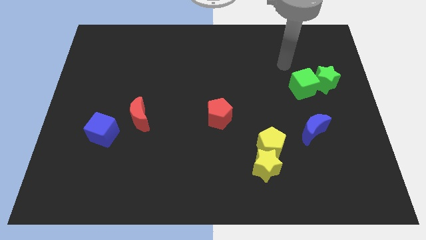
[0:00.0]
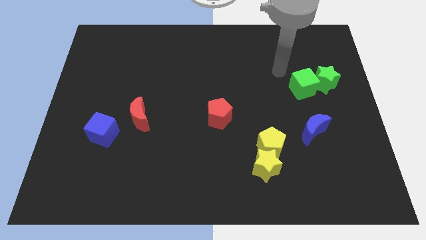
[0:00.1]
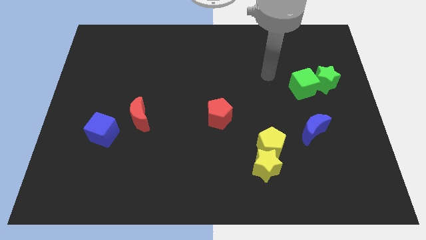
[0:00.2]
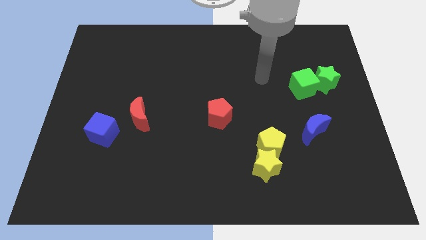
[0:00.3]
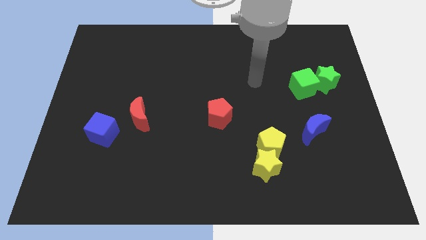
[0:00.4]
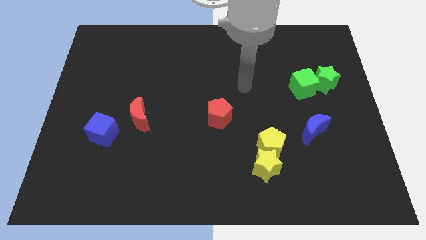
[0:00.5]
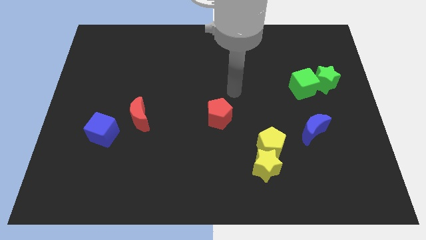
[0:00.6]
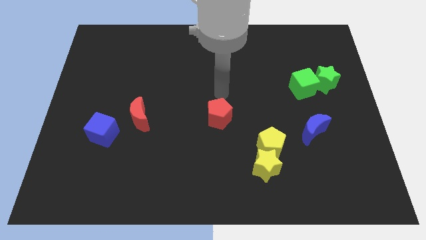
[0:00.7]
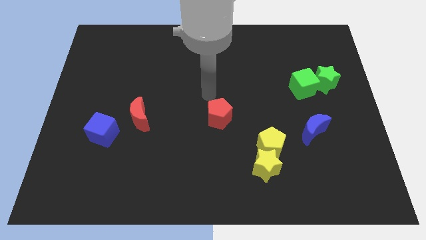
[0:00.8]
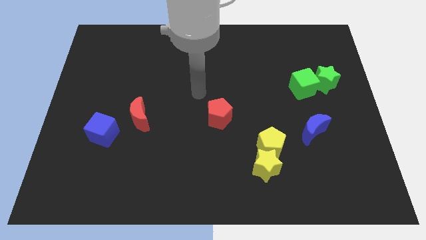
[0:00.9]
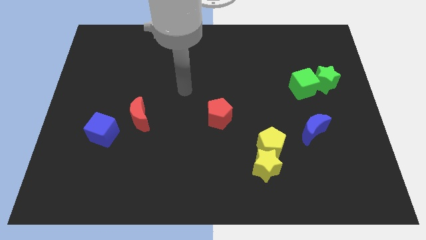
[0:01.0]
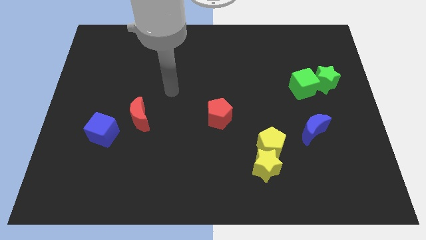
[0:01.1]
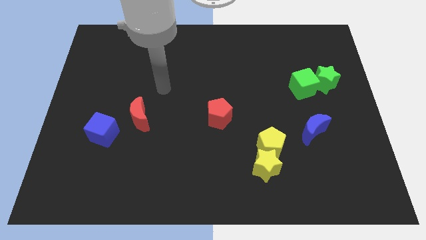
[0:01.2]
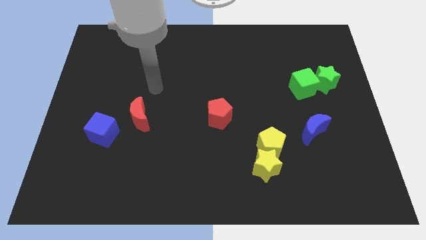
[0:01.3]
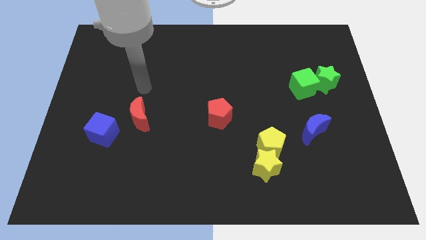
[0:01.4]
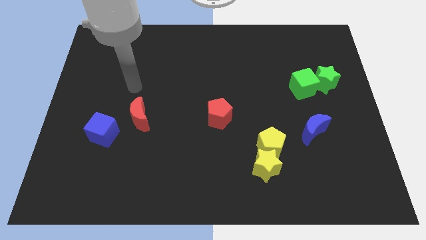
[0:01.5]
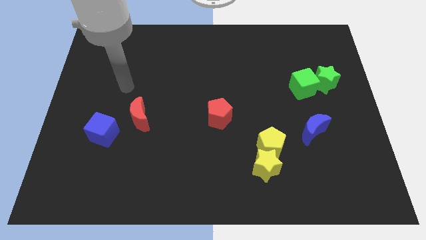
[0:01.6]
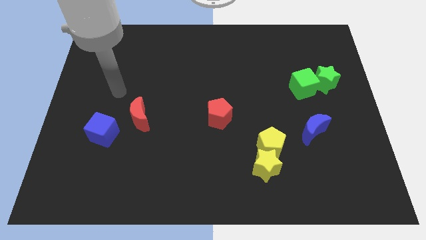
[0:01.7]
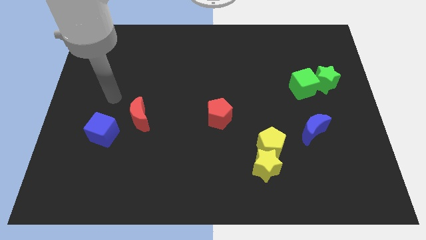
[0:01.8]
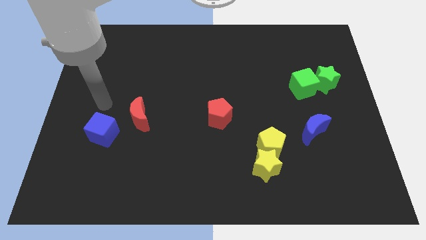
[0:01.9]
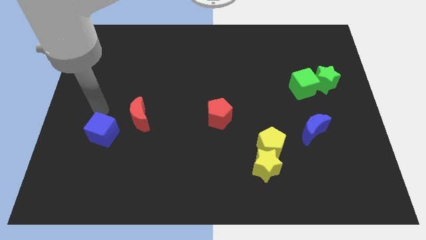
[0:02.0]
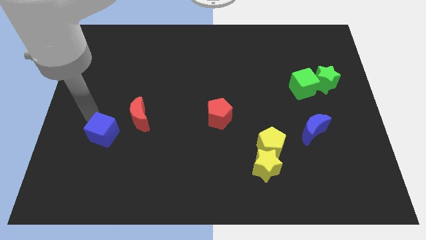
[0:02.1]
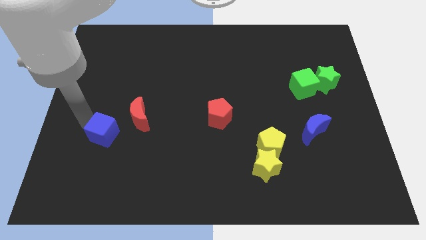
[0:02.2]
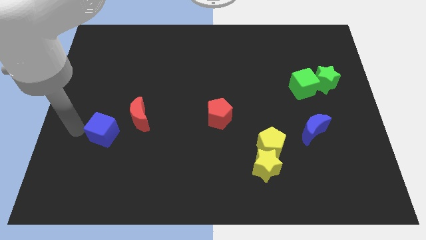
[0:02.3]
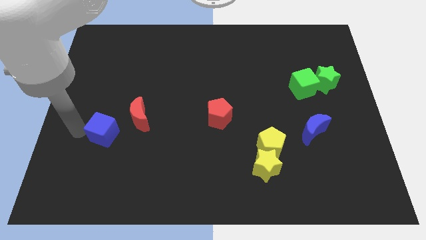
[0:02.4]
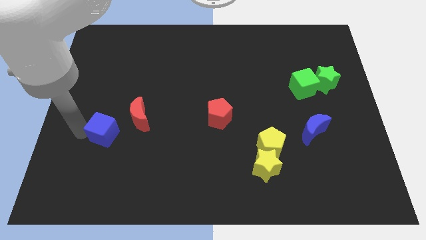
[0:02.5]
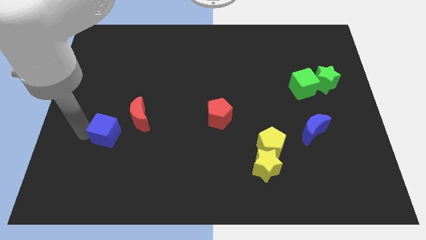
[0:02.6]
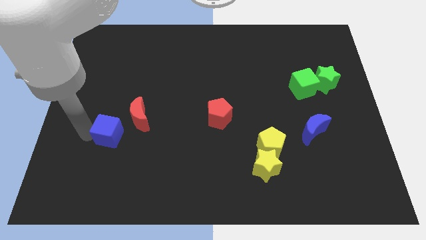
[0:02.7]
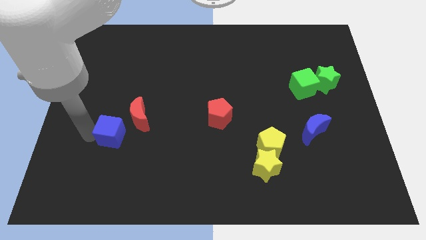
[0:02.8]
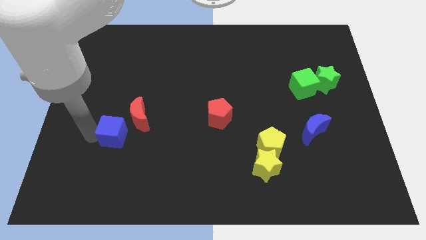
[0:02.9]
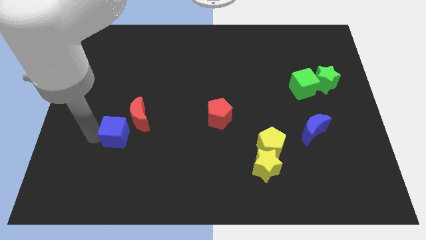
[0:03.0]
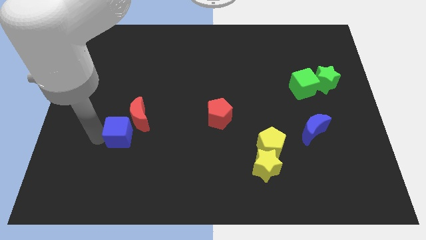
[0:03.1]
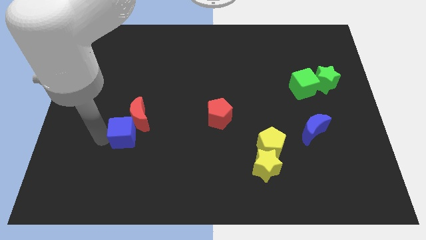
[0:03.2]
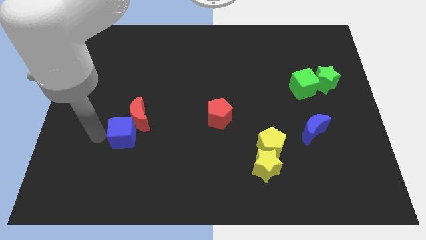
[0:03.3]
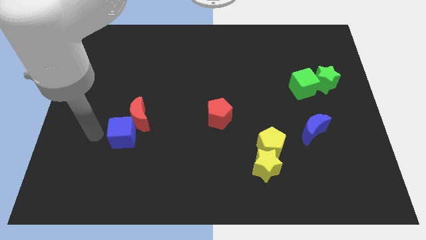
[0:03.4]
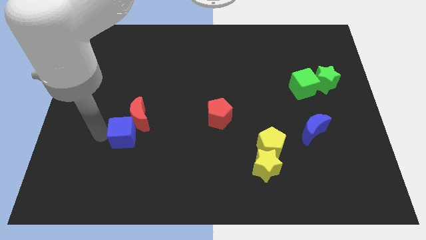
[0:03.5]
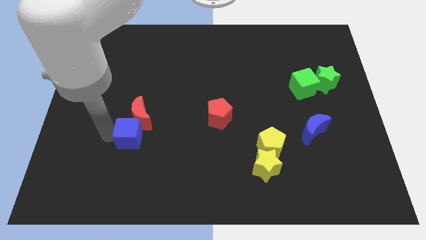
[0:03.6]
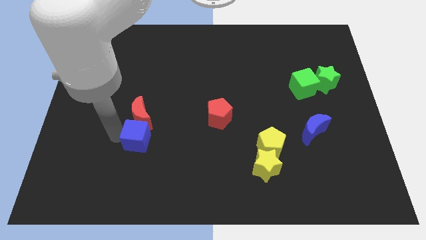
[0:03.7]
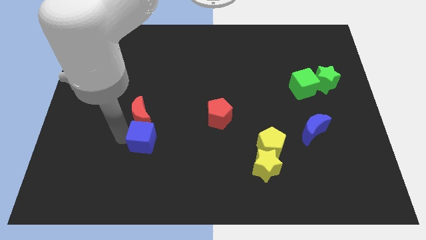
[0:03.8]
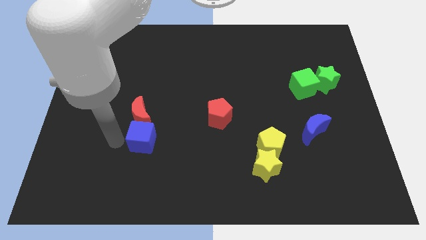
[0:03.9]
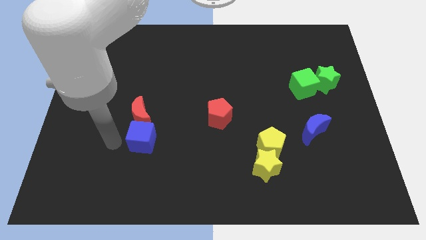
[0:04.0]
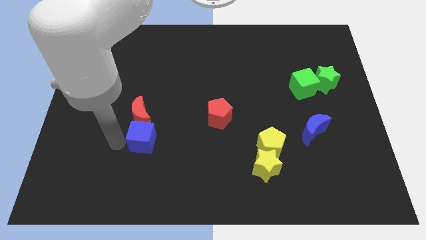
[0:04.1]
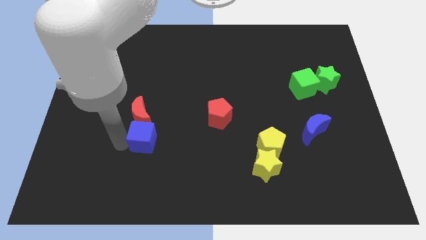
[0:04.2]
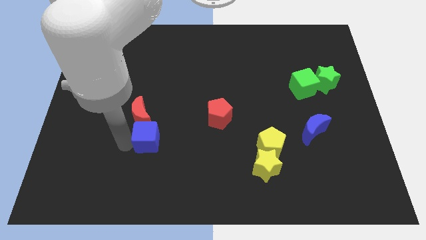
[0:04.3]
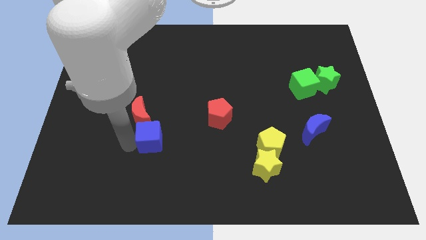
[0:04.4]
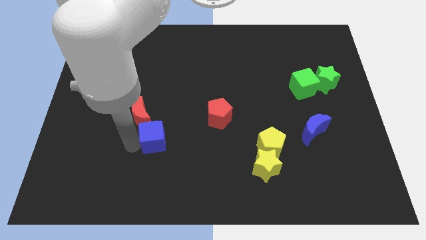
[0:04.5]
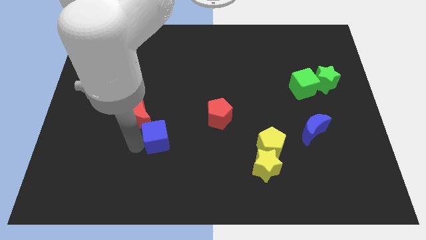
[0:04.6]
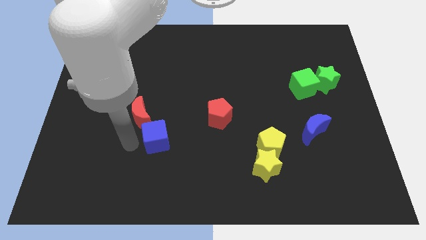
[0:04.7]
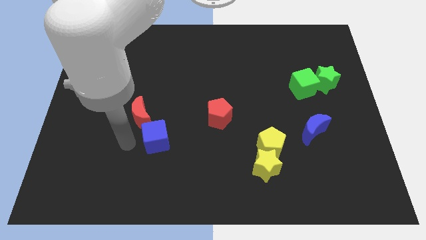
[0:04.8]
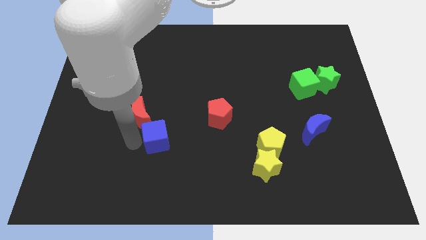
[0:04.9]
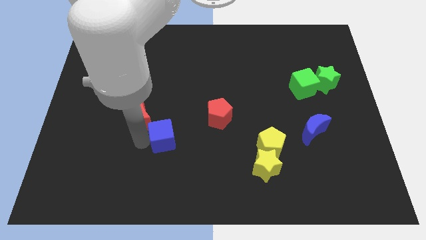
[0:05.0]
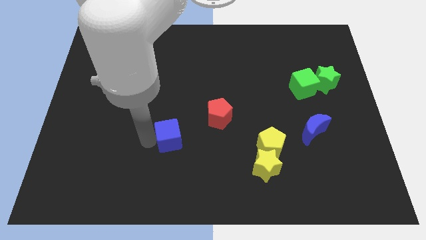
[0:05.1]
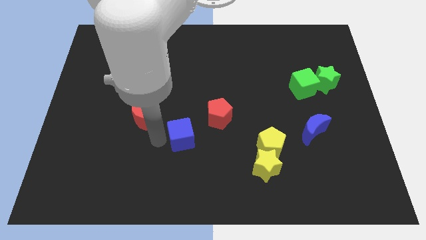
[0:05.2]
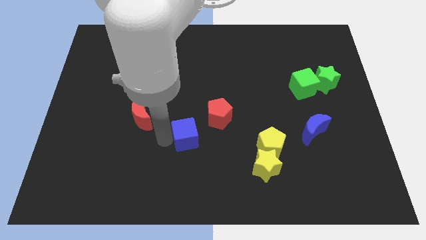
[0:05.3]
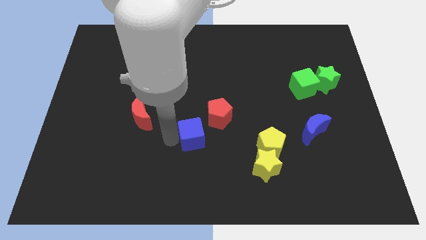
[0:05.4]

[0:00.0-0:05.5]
move the blue cube right

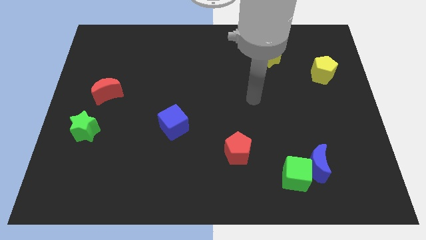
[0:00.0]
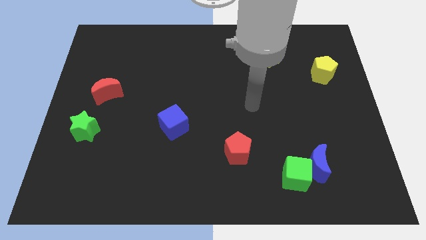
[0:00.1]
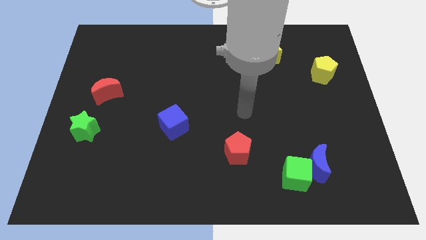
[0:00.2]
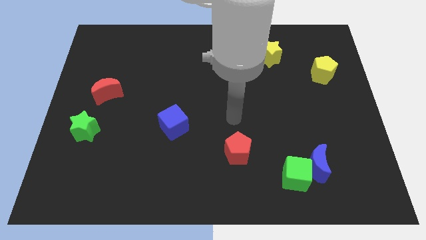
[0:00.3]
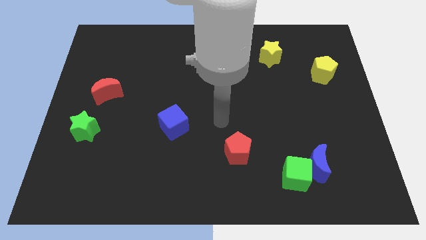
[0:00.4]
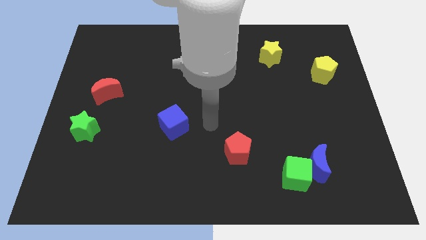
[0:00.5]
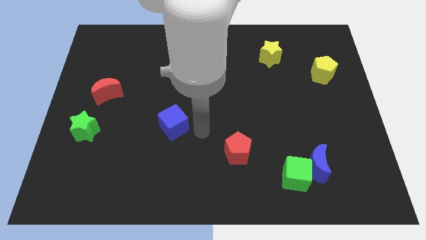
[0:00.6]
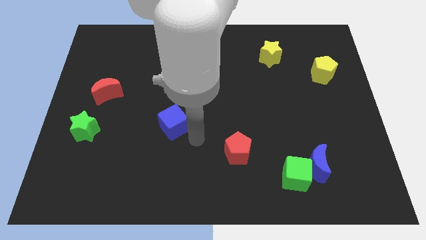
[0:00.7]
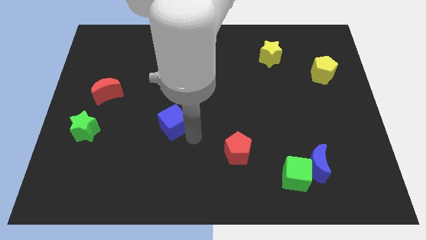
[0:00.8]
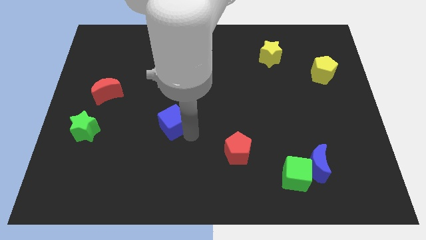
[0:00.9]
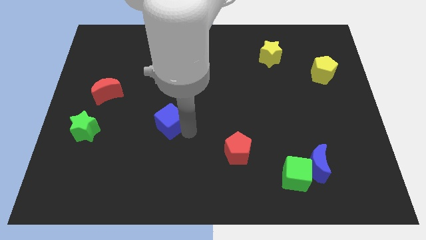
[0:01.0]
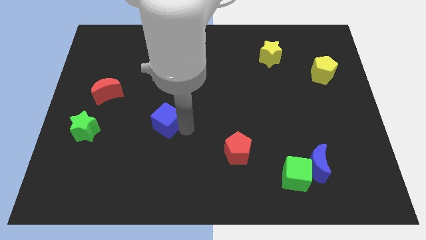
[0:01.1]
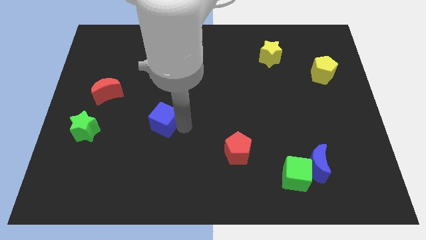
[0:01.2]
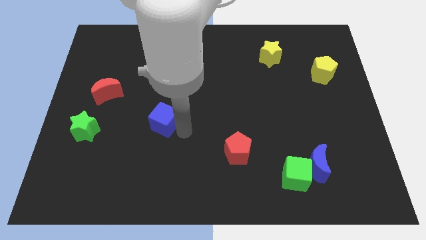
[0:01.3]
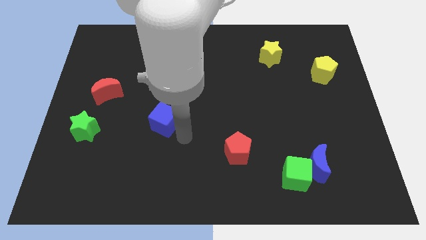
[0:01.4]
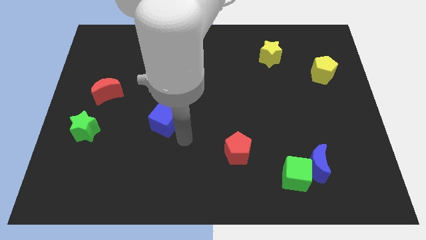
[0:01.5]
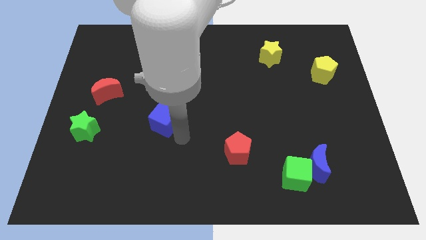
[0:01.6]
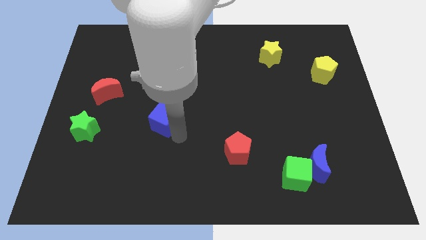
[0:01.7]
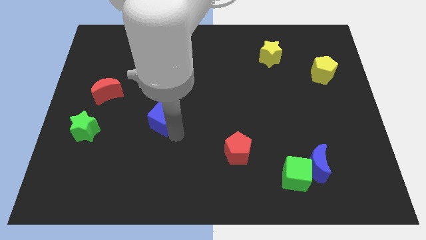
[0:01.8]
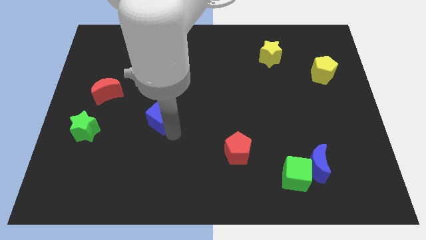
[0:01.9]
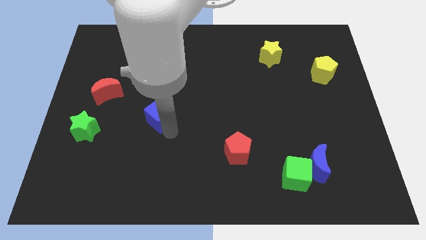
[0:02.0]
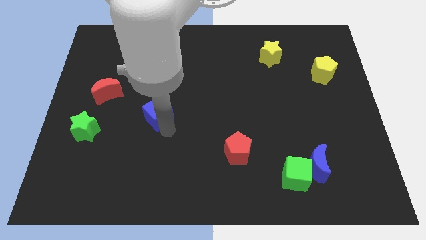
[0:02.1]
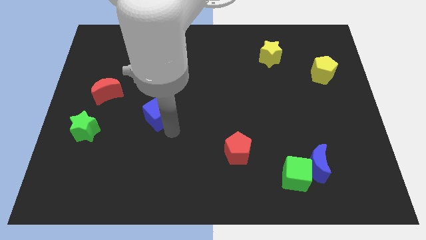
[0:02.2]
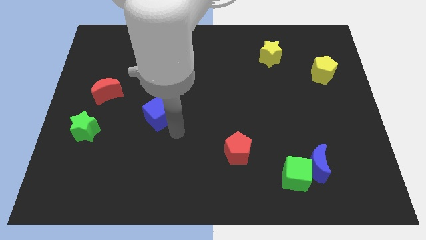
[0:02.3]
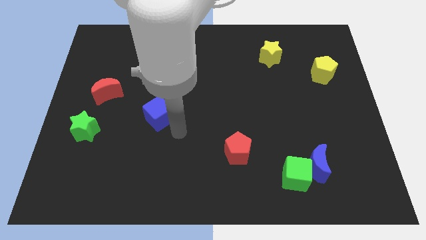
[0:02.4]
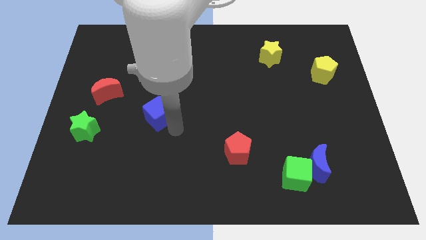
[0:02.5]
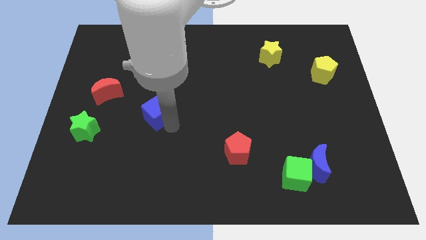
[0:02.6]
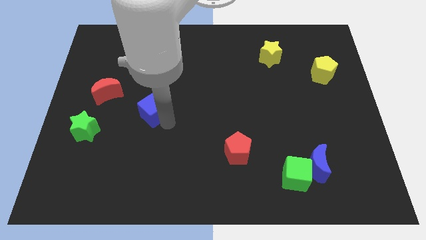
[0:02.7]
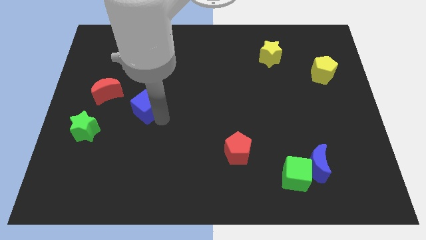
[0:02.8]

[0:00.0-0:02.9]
push the blue cube upwards and left diagonally slightly
